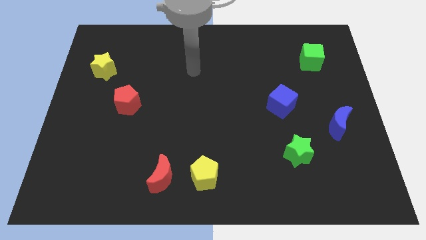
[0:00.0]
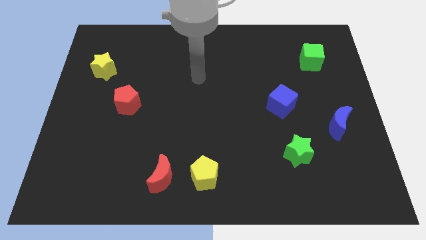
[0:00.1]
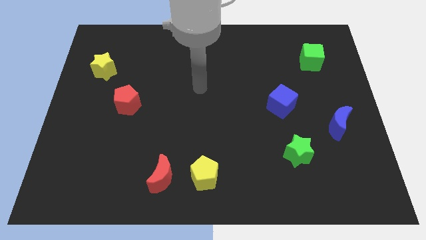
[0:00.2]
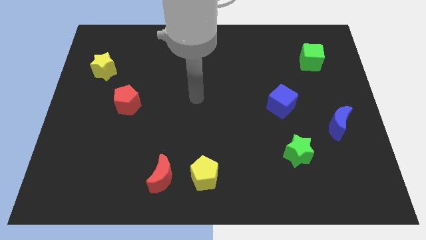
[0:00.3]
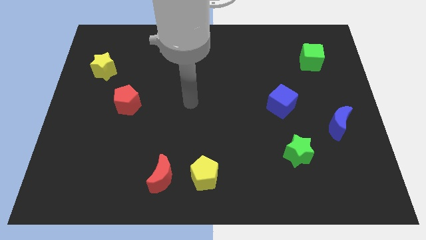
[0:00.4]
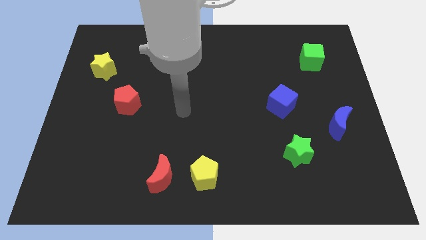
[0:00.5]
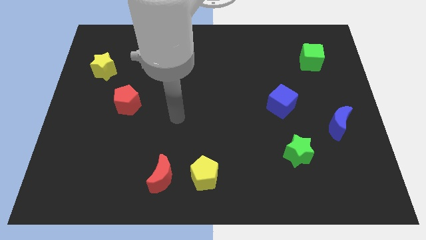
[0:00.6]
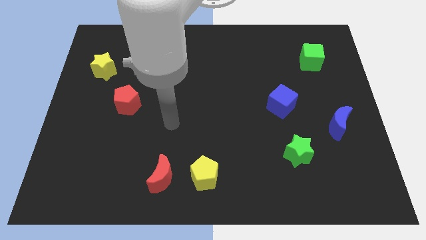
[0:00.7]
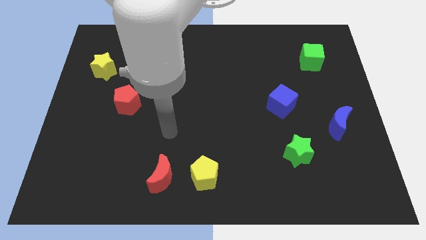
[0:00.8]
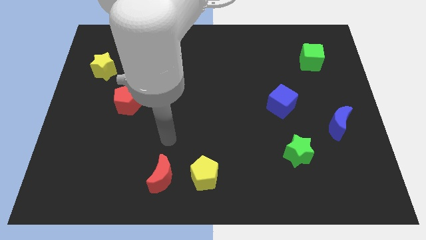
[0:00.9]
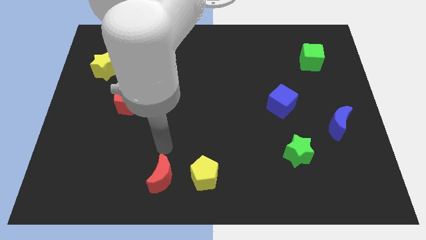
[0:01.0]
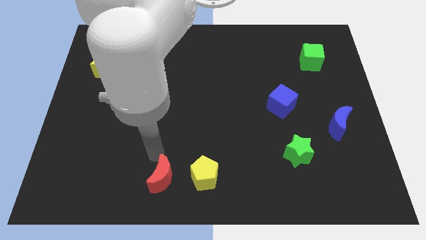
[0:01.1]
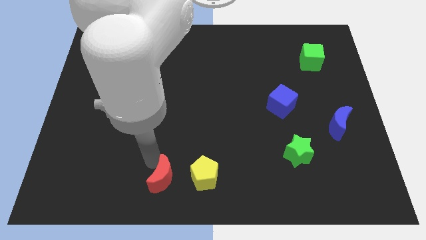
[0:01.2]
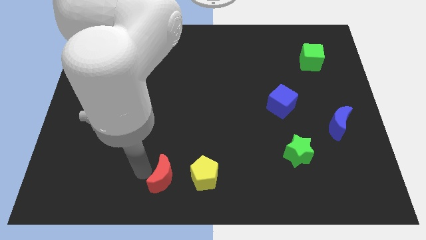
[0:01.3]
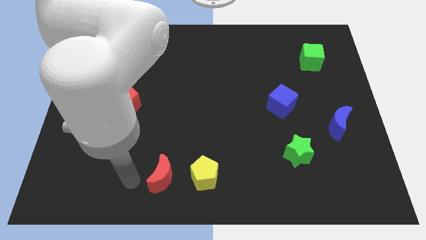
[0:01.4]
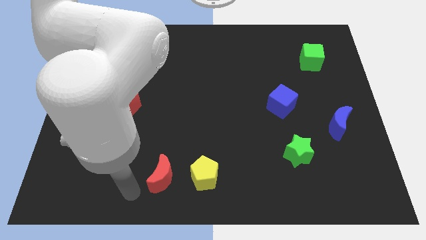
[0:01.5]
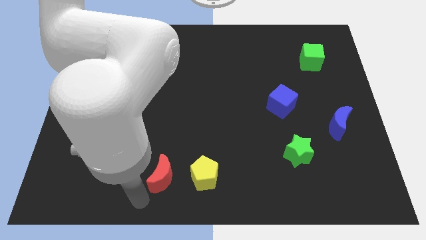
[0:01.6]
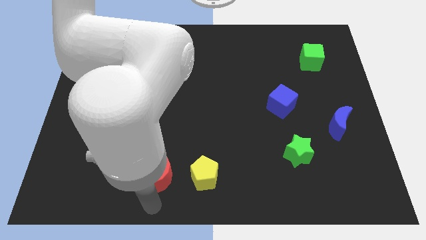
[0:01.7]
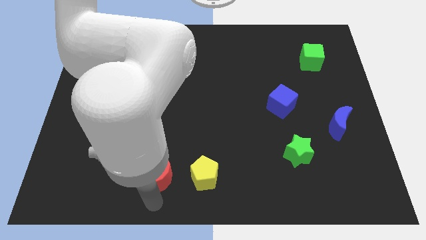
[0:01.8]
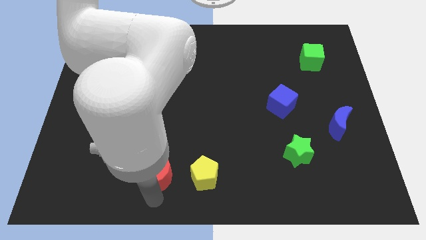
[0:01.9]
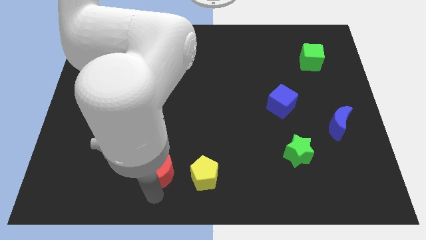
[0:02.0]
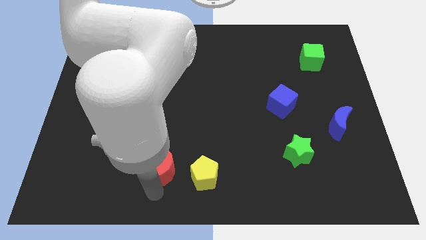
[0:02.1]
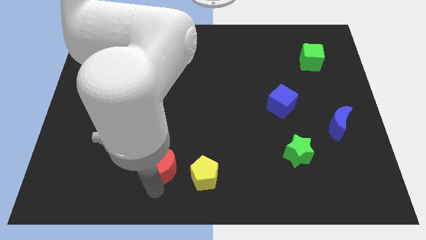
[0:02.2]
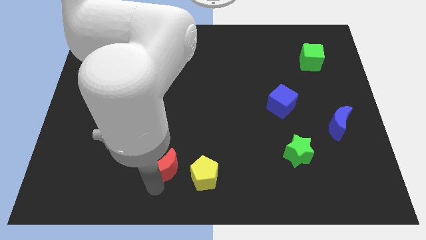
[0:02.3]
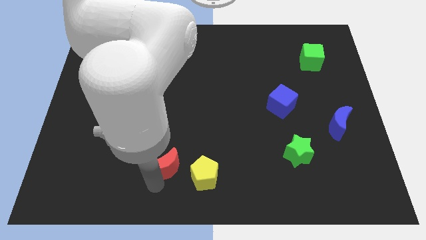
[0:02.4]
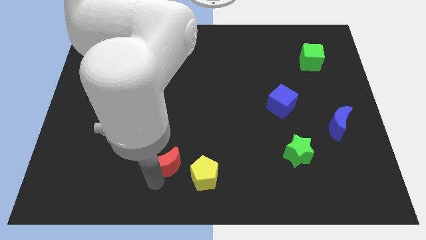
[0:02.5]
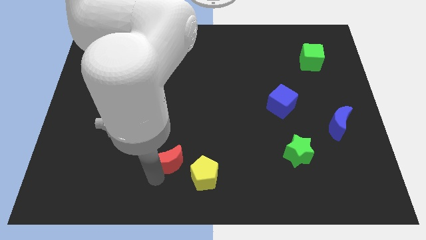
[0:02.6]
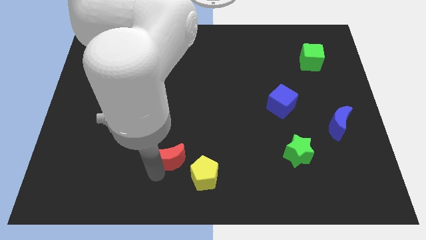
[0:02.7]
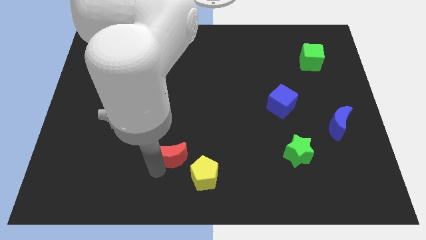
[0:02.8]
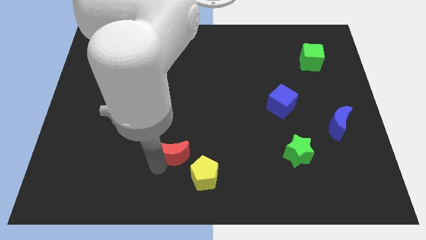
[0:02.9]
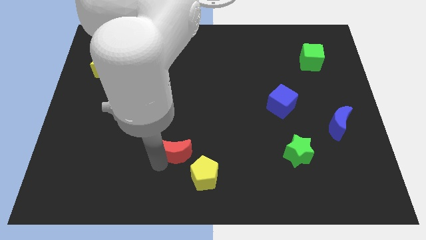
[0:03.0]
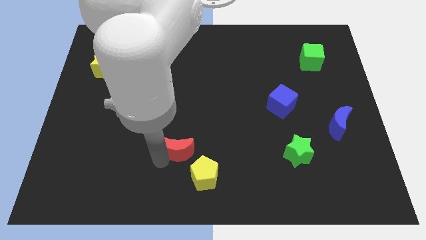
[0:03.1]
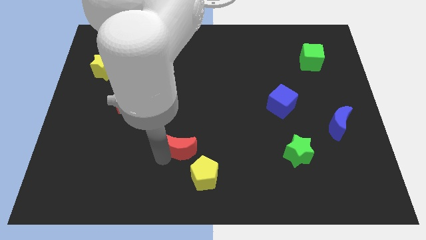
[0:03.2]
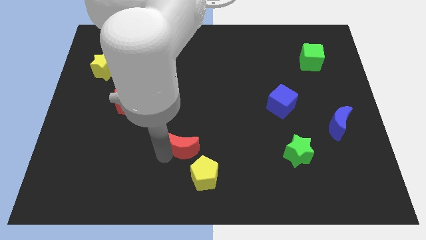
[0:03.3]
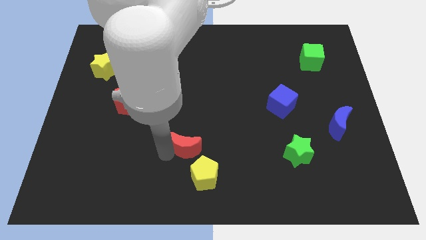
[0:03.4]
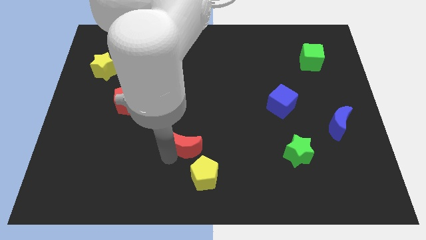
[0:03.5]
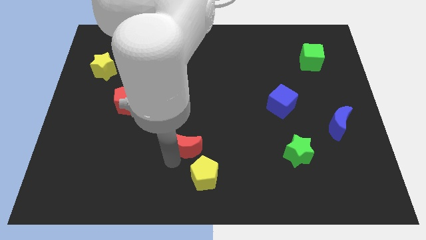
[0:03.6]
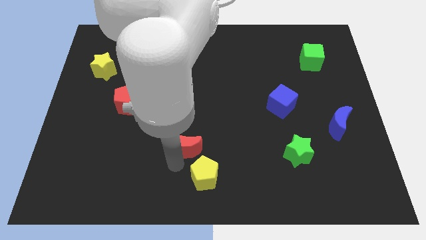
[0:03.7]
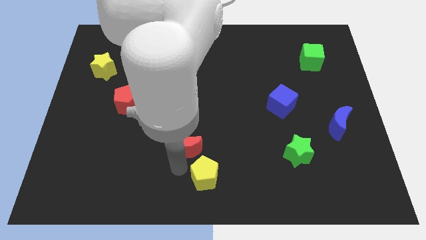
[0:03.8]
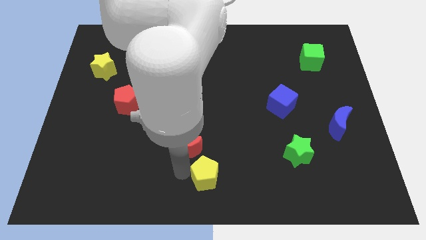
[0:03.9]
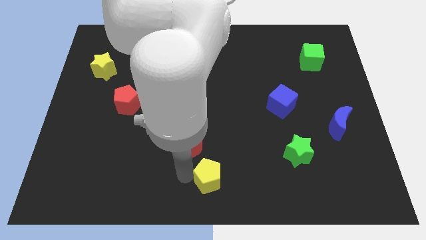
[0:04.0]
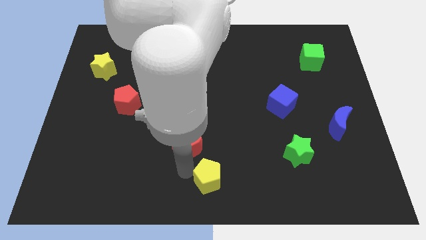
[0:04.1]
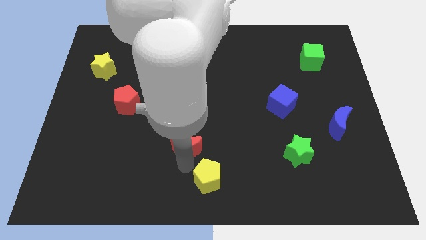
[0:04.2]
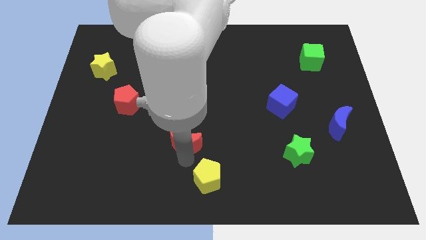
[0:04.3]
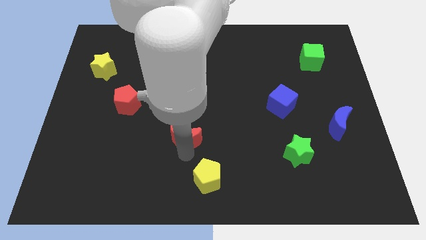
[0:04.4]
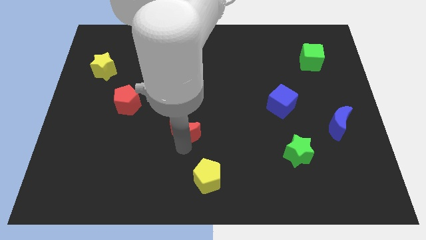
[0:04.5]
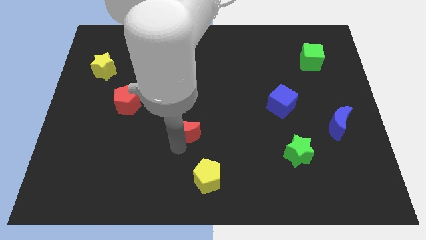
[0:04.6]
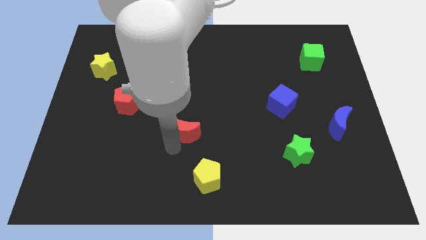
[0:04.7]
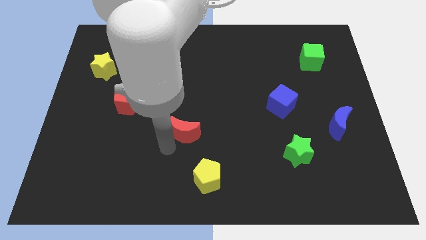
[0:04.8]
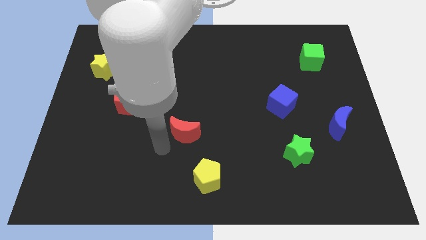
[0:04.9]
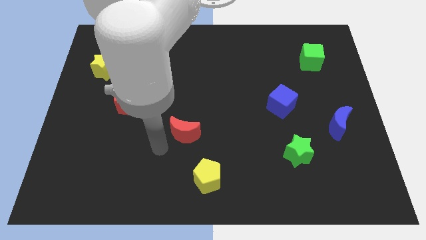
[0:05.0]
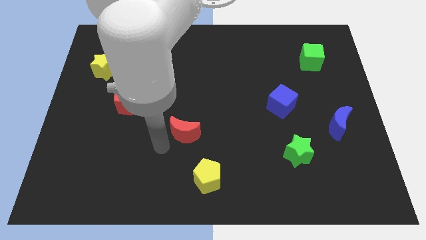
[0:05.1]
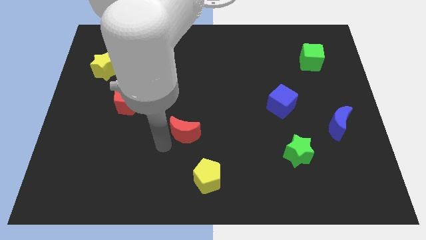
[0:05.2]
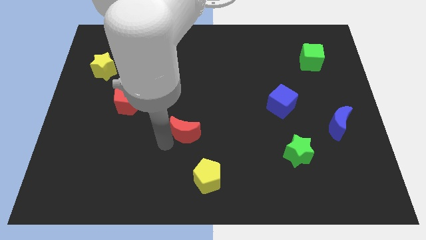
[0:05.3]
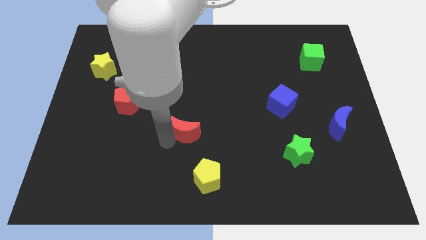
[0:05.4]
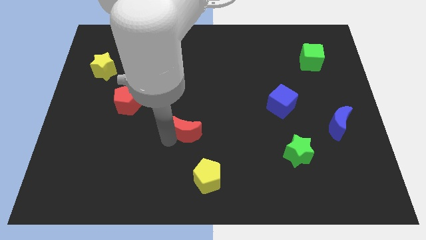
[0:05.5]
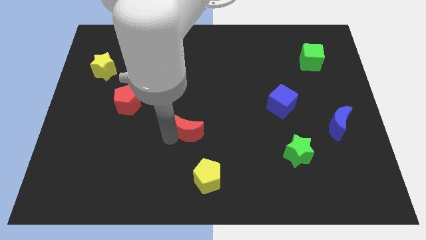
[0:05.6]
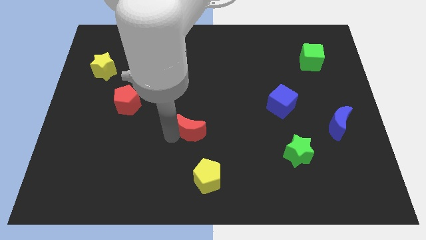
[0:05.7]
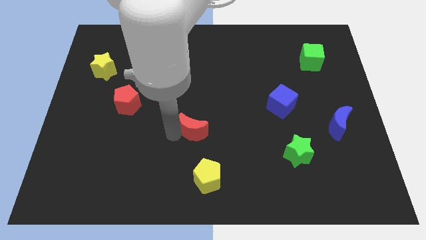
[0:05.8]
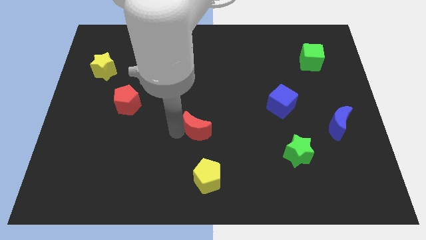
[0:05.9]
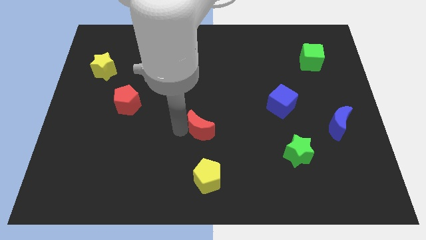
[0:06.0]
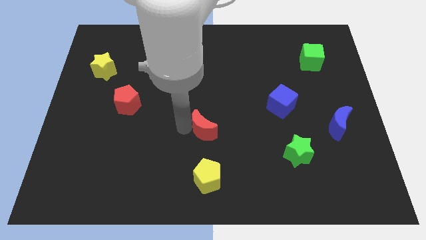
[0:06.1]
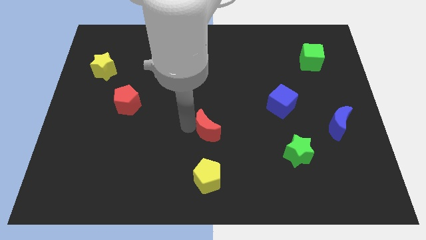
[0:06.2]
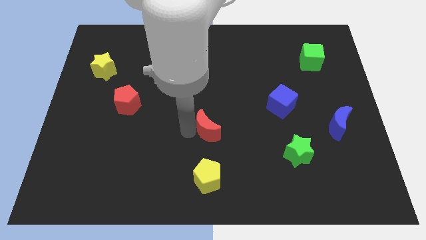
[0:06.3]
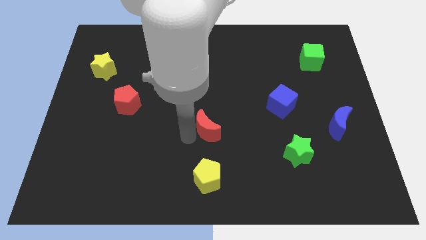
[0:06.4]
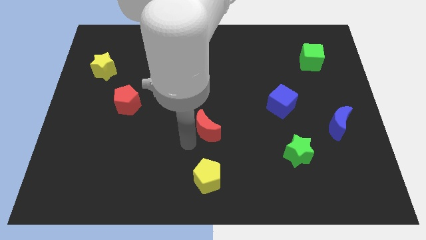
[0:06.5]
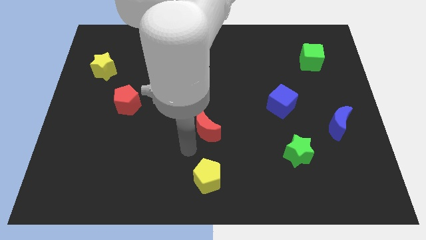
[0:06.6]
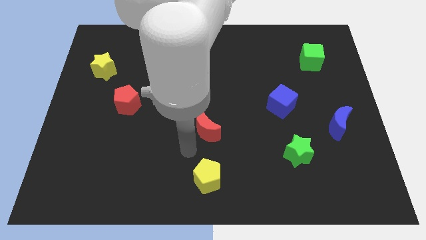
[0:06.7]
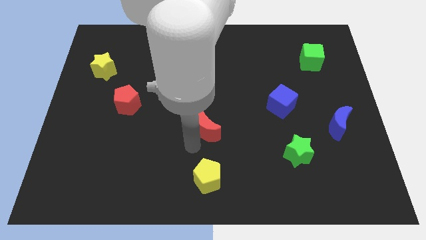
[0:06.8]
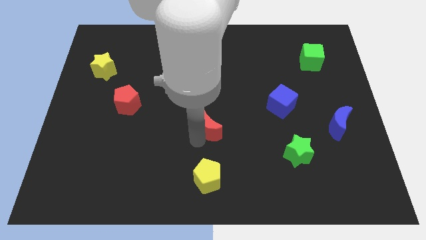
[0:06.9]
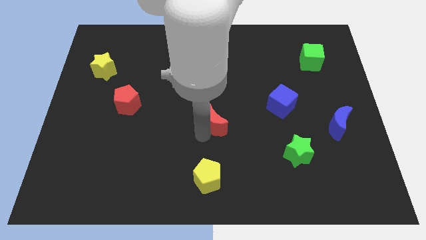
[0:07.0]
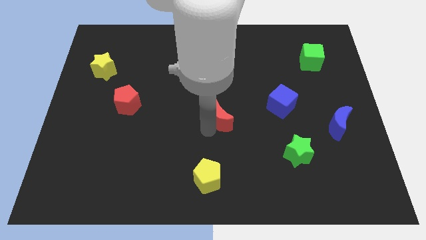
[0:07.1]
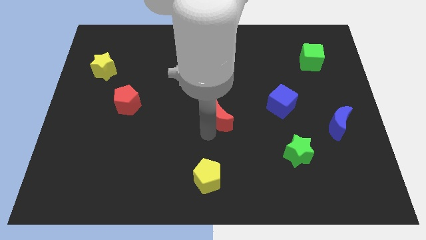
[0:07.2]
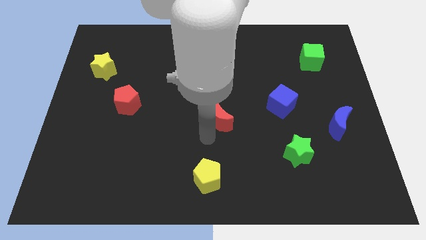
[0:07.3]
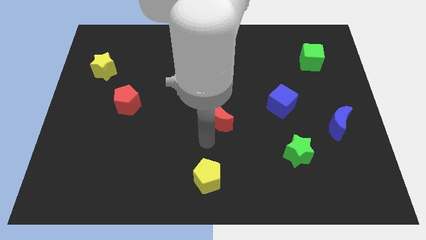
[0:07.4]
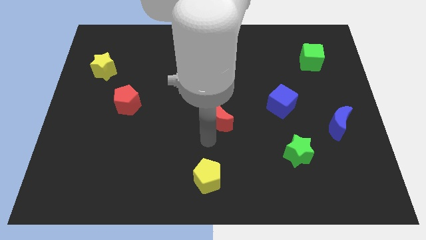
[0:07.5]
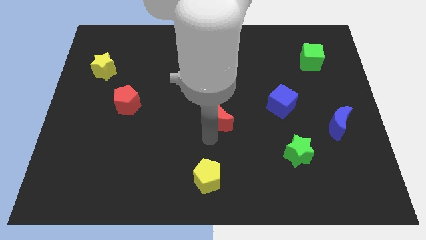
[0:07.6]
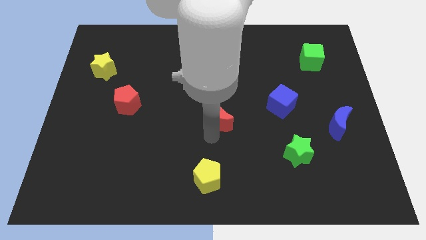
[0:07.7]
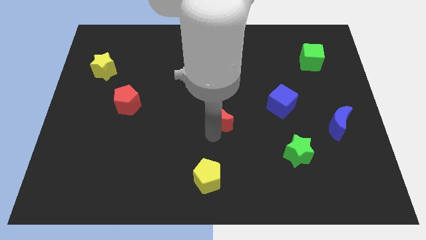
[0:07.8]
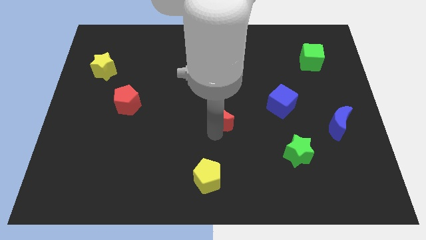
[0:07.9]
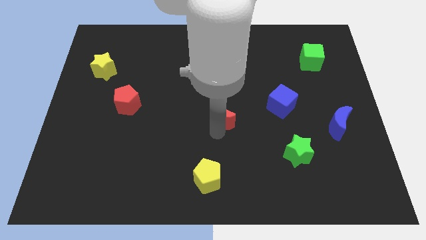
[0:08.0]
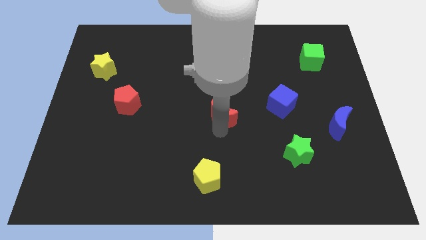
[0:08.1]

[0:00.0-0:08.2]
slide the red moon to the left of the blue cube
